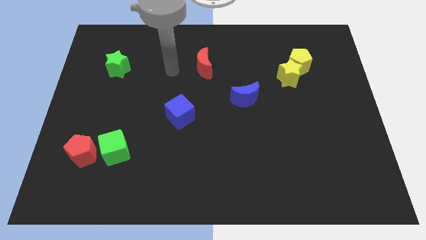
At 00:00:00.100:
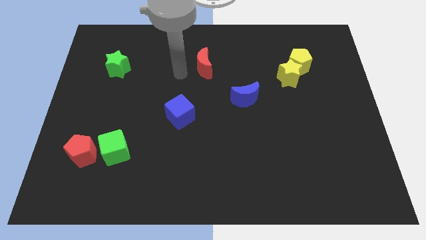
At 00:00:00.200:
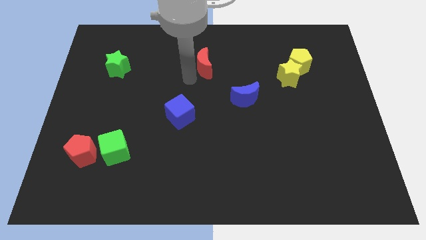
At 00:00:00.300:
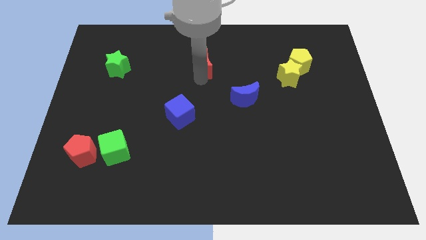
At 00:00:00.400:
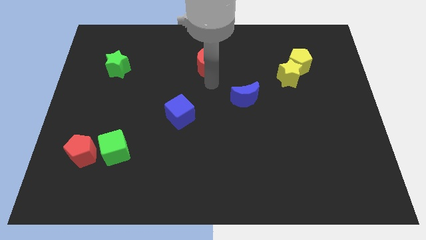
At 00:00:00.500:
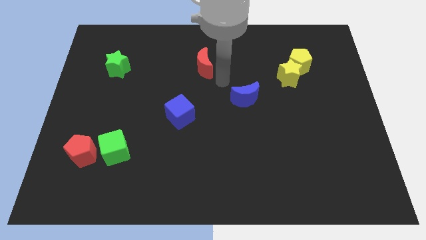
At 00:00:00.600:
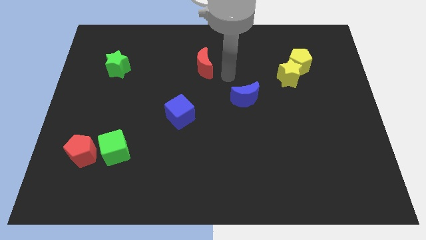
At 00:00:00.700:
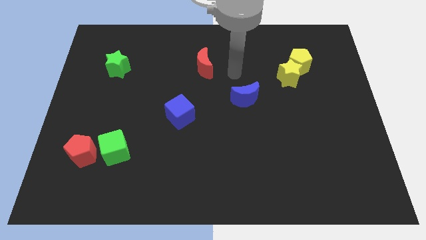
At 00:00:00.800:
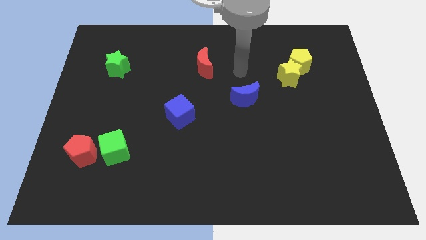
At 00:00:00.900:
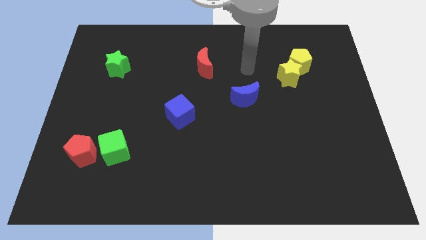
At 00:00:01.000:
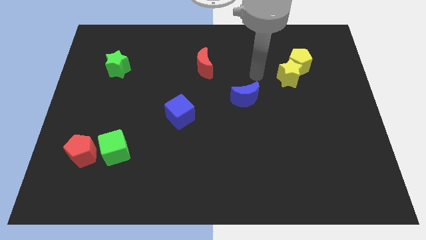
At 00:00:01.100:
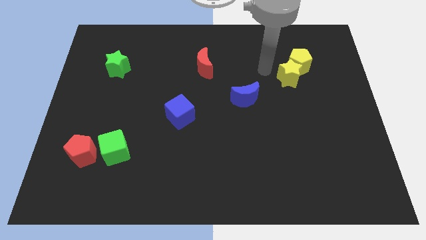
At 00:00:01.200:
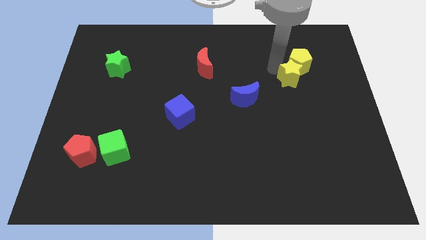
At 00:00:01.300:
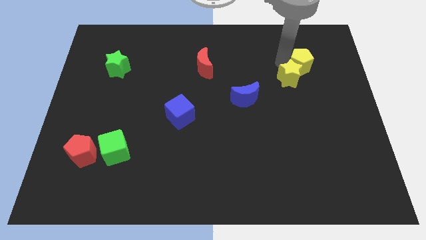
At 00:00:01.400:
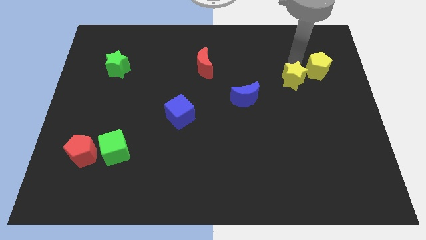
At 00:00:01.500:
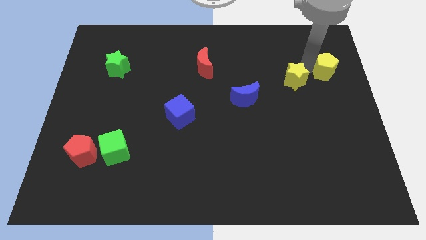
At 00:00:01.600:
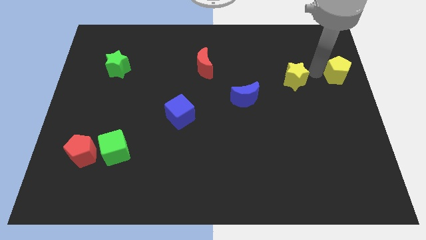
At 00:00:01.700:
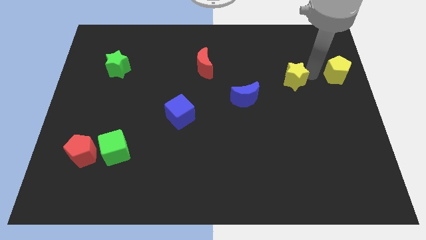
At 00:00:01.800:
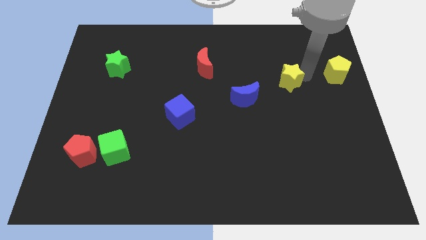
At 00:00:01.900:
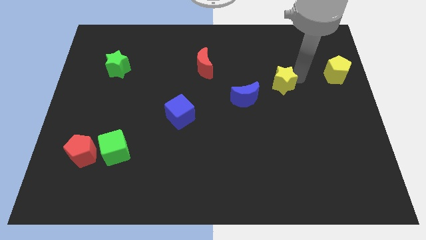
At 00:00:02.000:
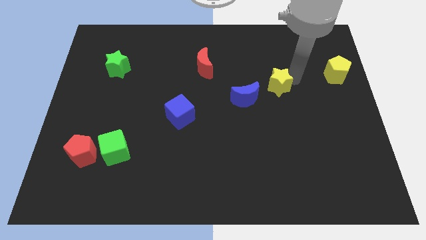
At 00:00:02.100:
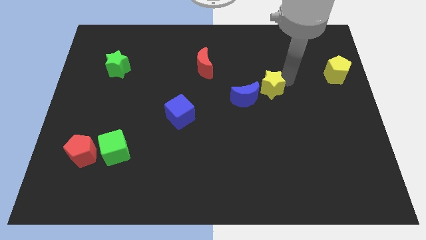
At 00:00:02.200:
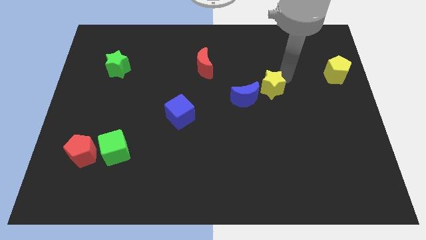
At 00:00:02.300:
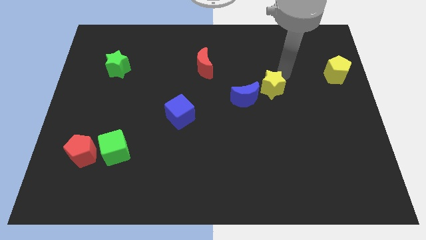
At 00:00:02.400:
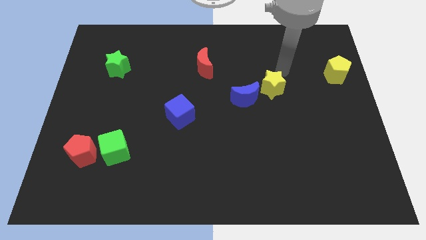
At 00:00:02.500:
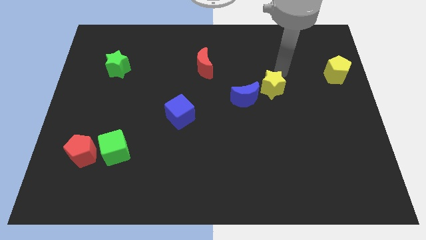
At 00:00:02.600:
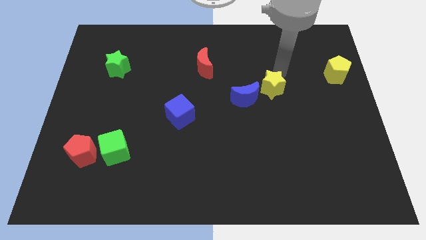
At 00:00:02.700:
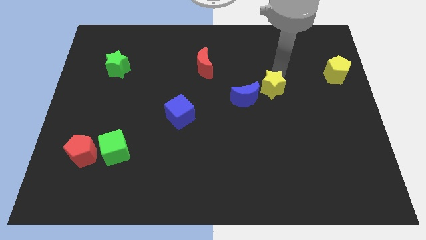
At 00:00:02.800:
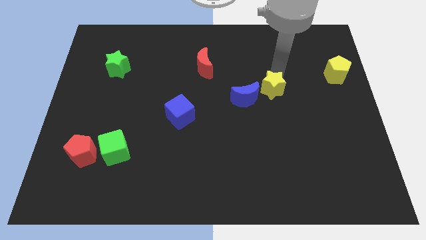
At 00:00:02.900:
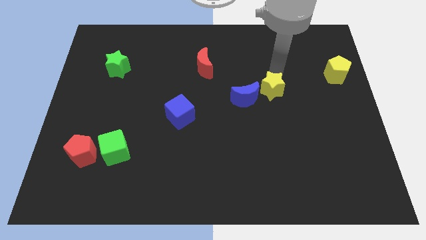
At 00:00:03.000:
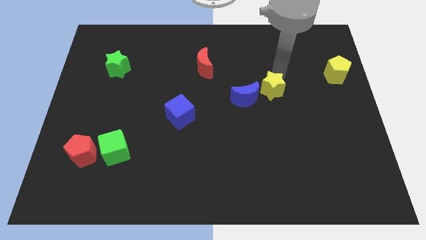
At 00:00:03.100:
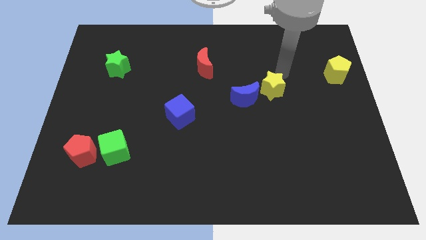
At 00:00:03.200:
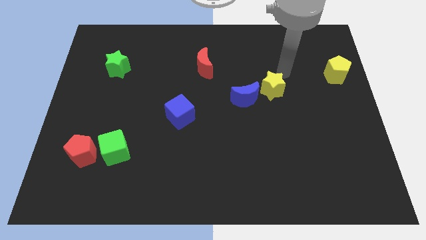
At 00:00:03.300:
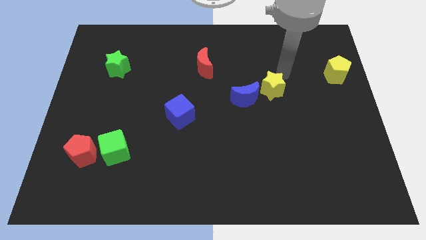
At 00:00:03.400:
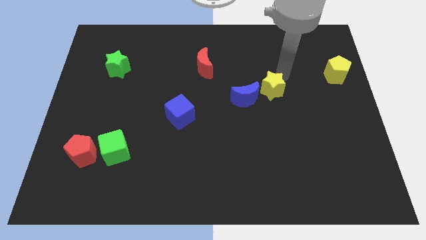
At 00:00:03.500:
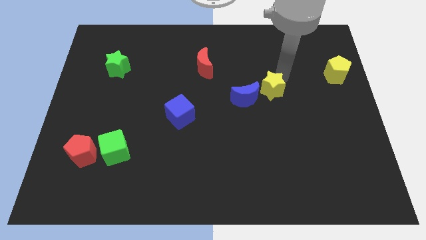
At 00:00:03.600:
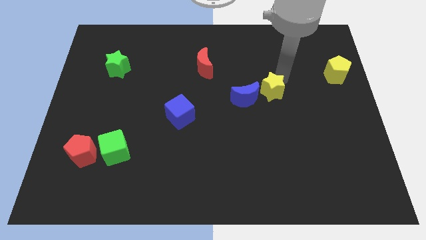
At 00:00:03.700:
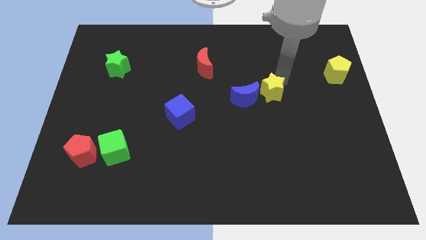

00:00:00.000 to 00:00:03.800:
slightly move the yellow star down and then left

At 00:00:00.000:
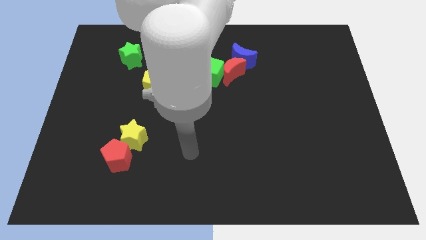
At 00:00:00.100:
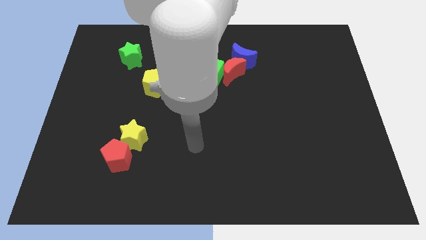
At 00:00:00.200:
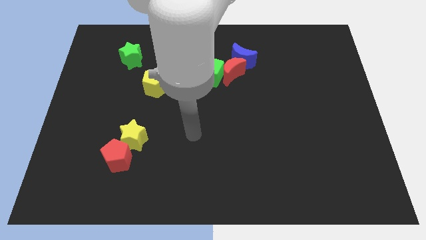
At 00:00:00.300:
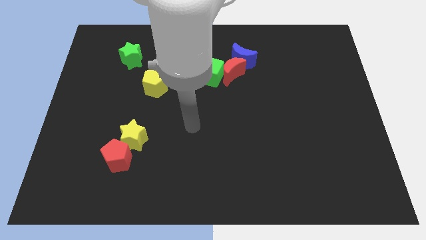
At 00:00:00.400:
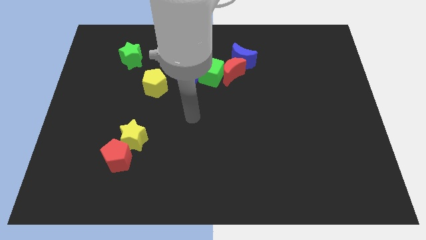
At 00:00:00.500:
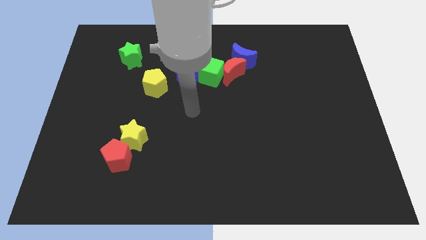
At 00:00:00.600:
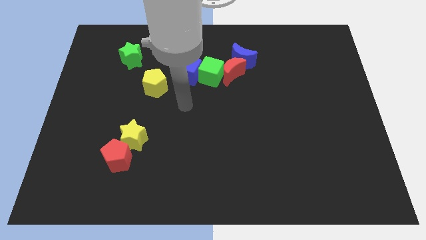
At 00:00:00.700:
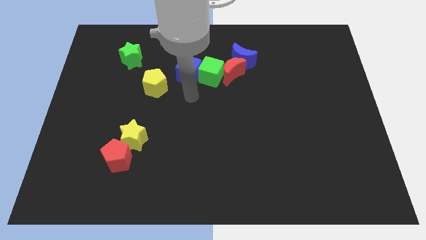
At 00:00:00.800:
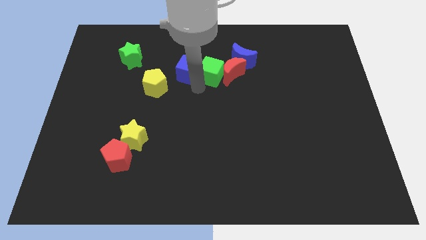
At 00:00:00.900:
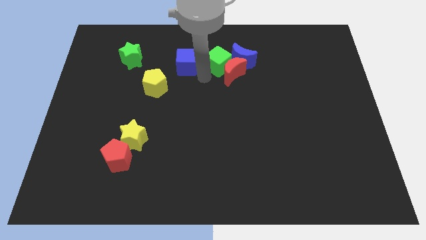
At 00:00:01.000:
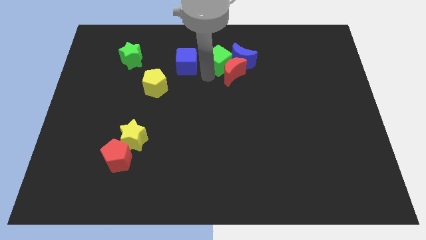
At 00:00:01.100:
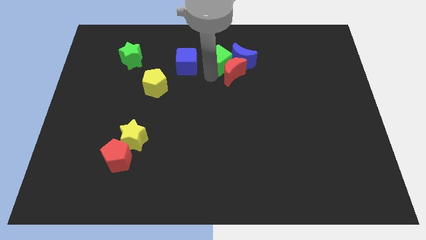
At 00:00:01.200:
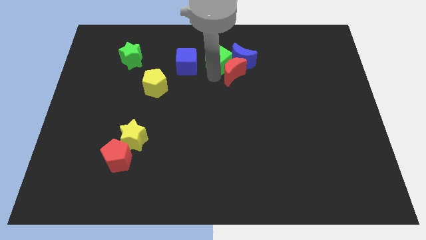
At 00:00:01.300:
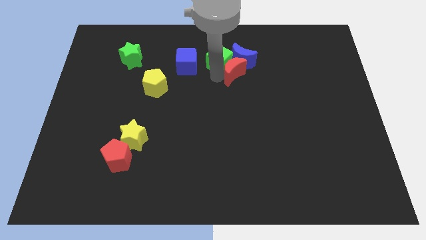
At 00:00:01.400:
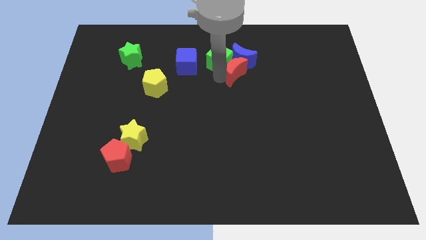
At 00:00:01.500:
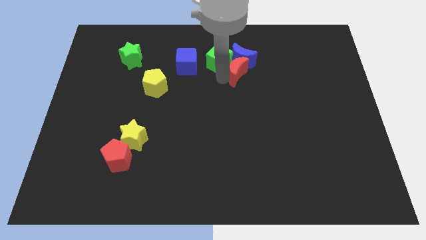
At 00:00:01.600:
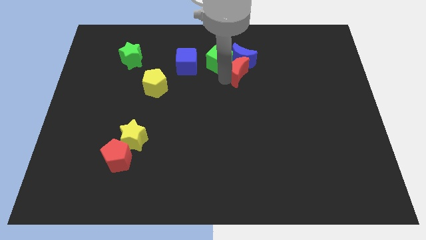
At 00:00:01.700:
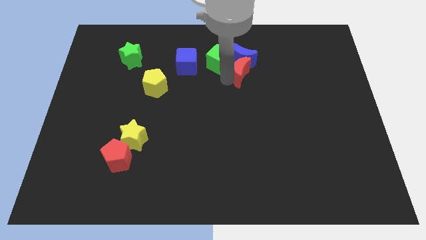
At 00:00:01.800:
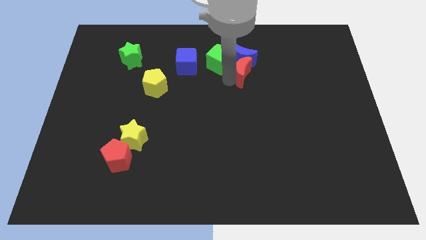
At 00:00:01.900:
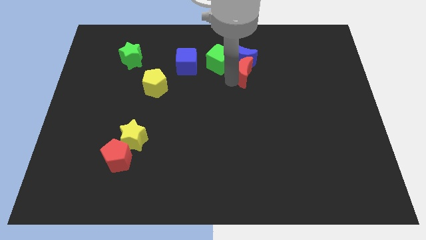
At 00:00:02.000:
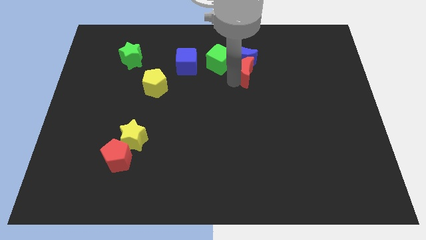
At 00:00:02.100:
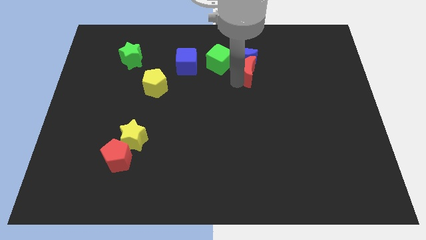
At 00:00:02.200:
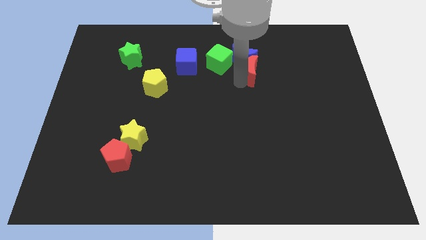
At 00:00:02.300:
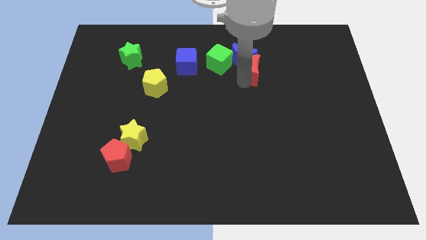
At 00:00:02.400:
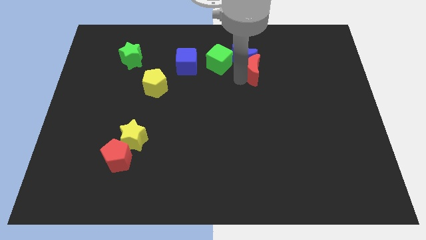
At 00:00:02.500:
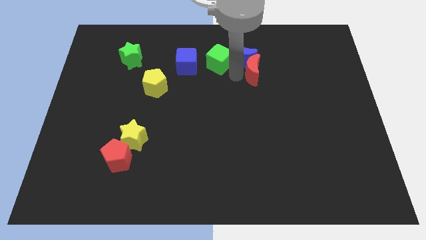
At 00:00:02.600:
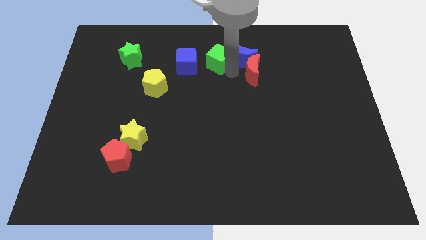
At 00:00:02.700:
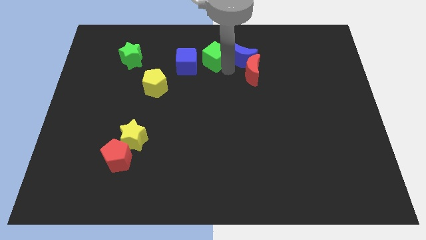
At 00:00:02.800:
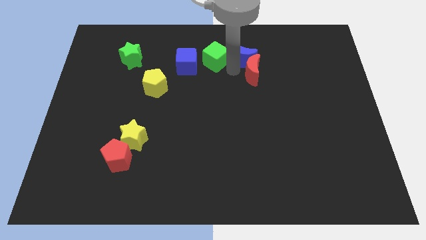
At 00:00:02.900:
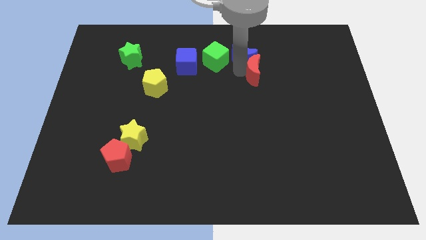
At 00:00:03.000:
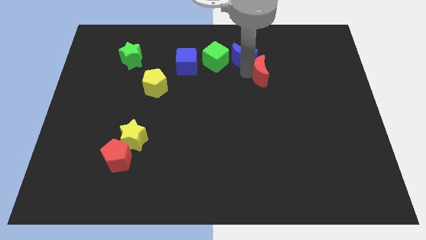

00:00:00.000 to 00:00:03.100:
move the red moon right slightly

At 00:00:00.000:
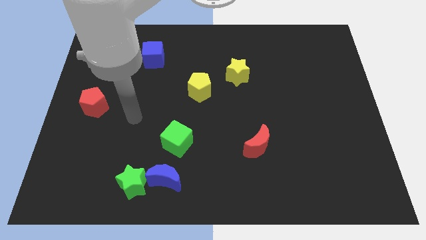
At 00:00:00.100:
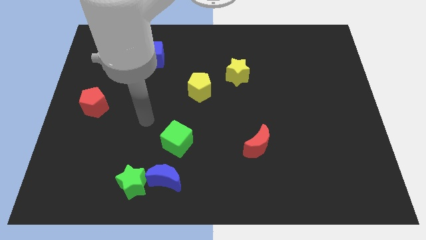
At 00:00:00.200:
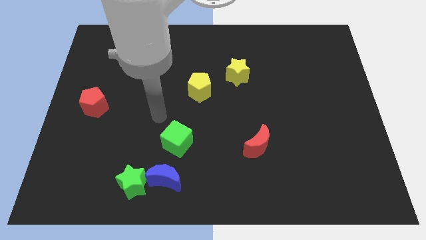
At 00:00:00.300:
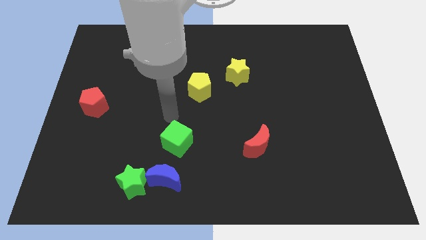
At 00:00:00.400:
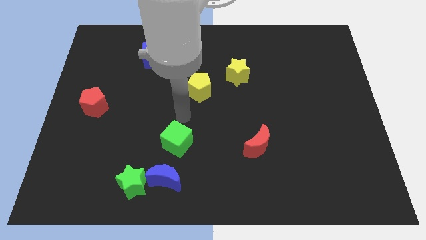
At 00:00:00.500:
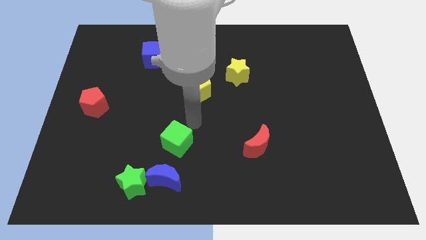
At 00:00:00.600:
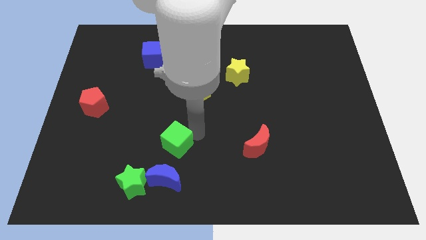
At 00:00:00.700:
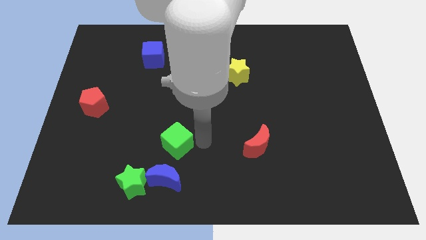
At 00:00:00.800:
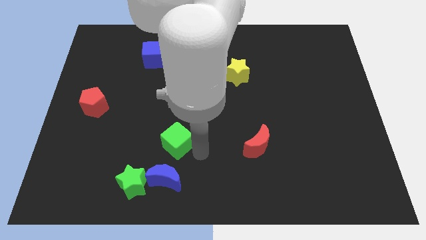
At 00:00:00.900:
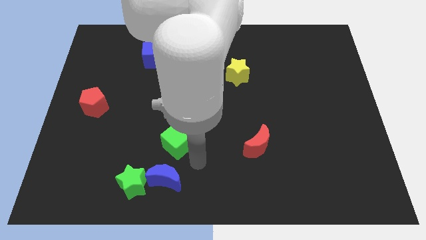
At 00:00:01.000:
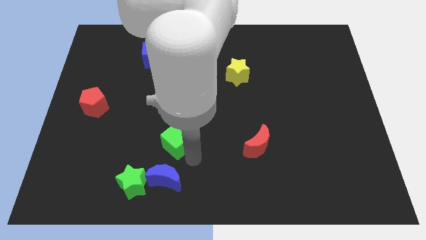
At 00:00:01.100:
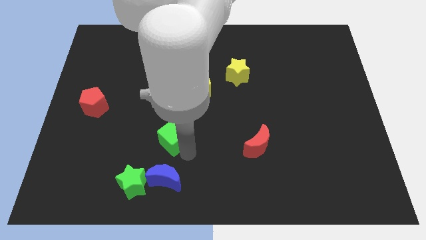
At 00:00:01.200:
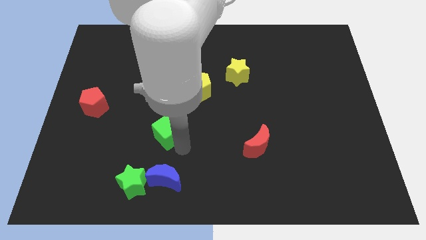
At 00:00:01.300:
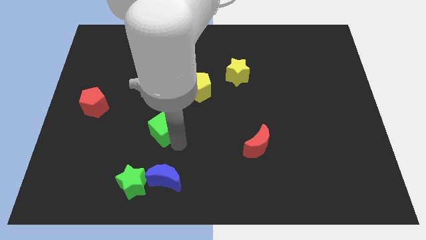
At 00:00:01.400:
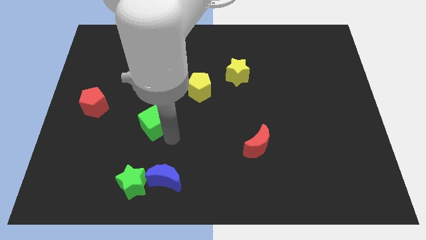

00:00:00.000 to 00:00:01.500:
move the green cube a bit up and to the left
